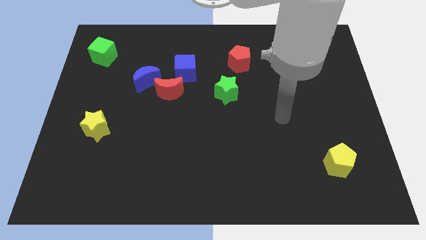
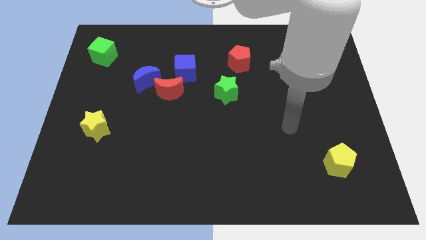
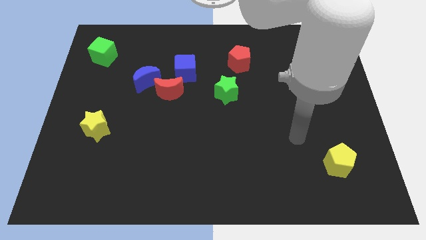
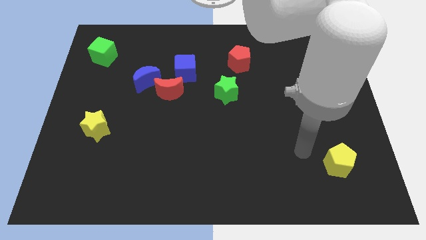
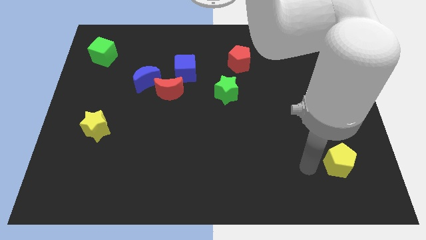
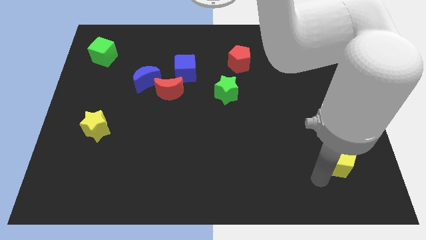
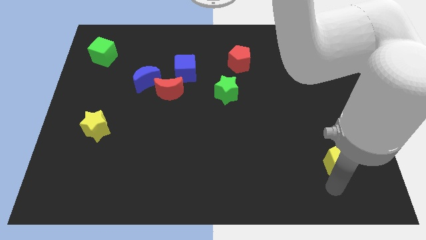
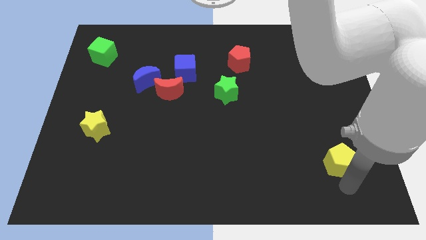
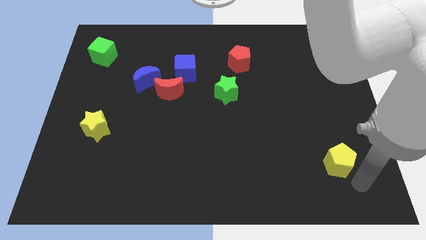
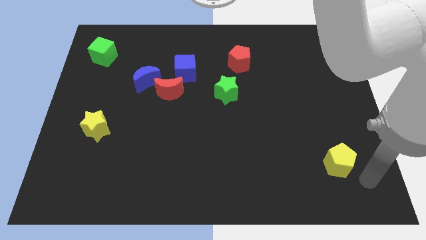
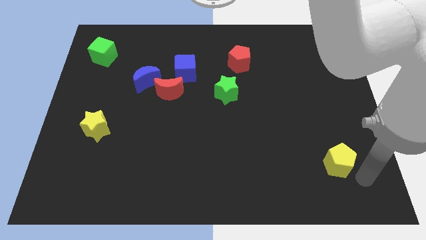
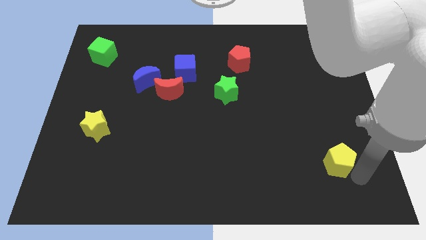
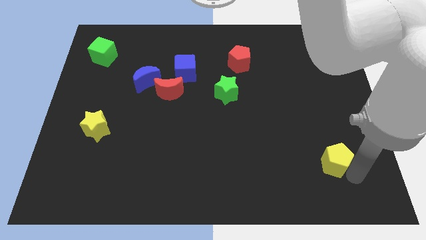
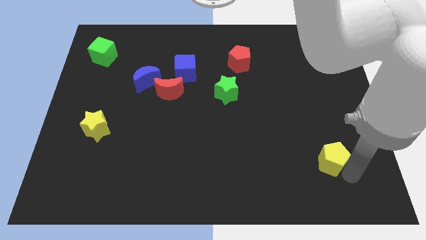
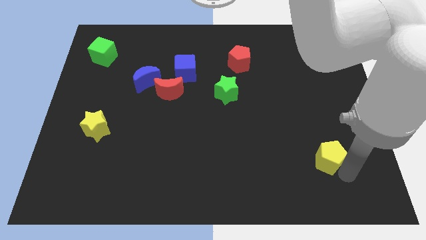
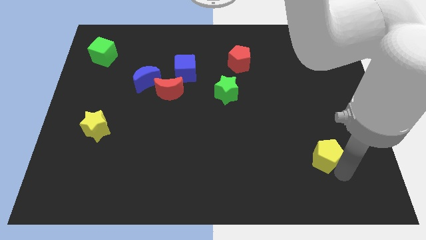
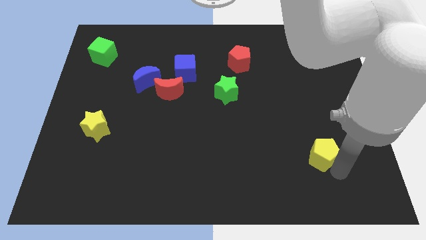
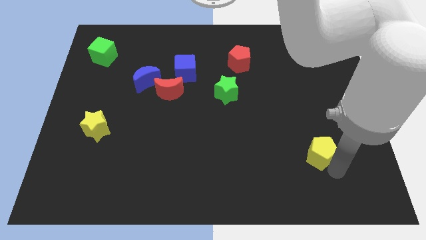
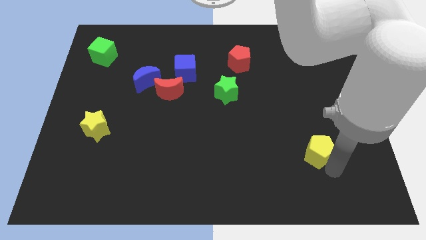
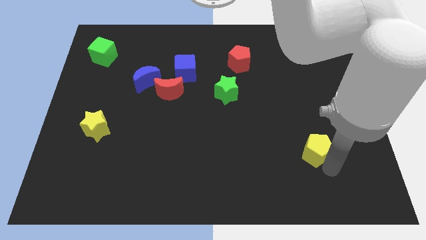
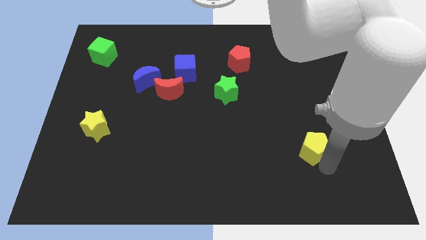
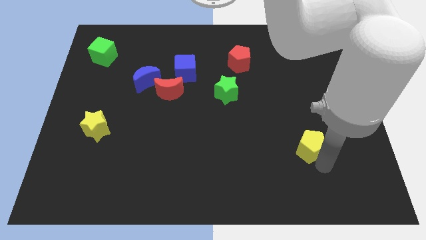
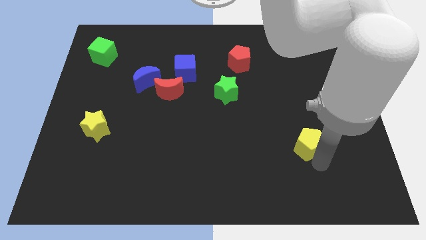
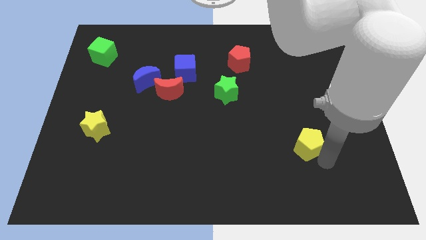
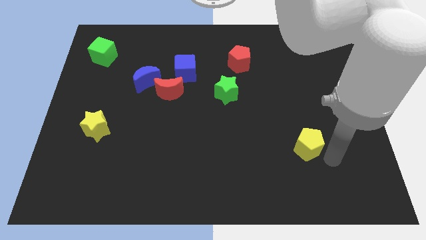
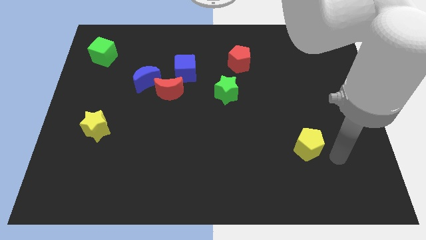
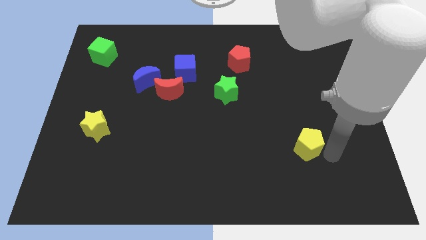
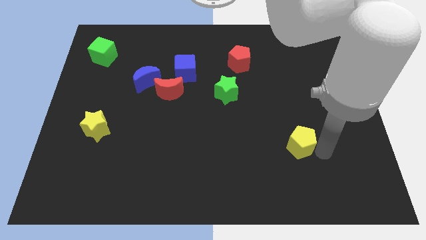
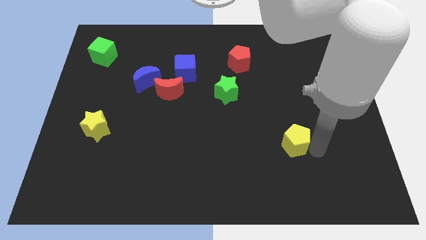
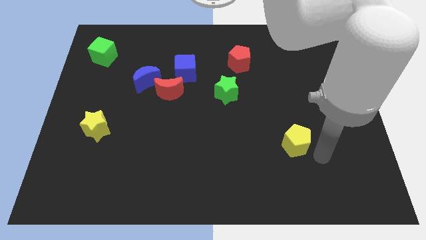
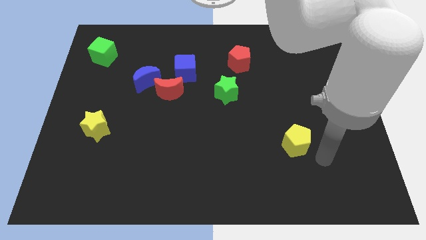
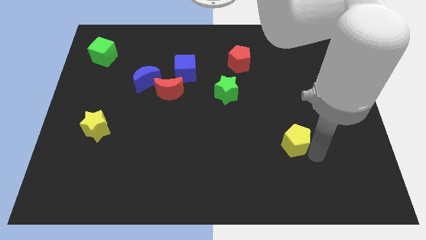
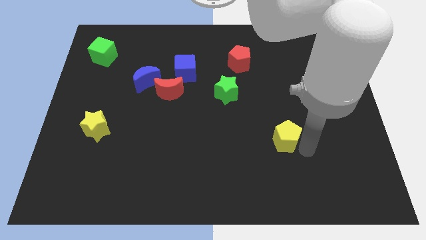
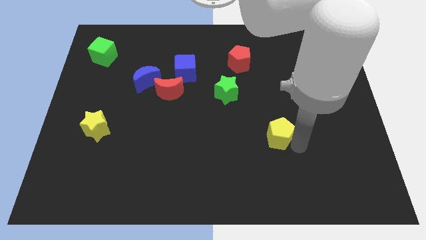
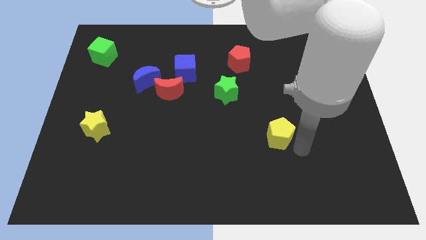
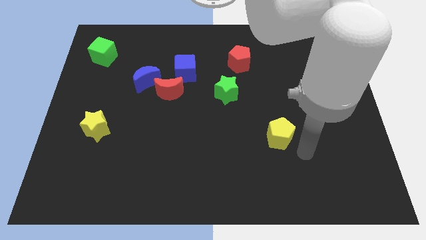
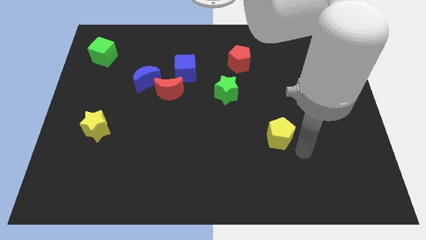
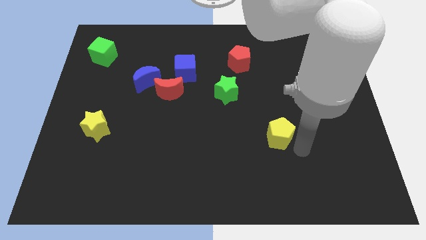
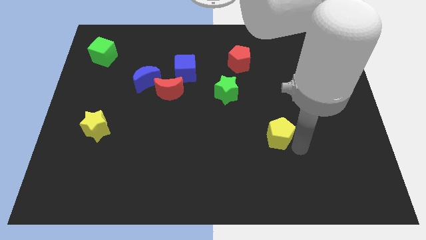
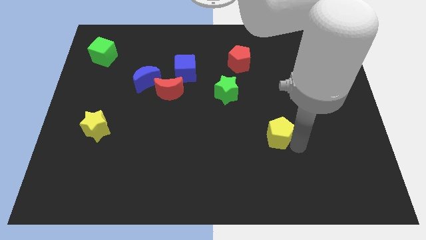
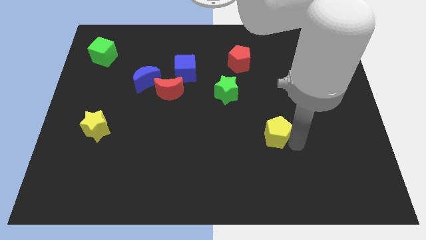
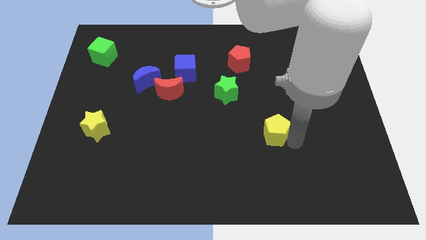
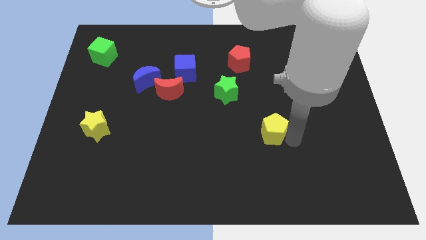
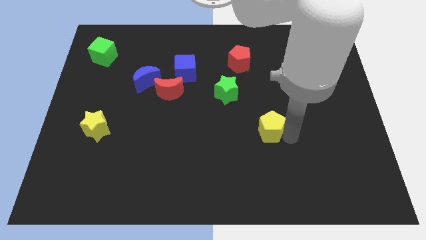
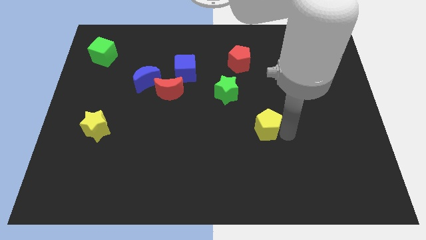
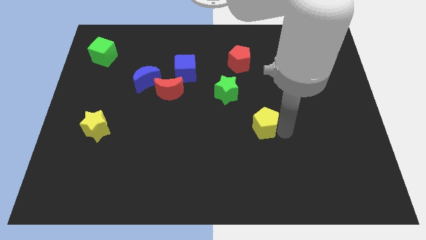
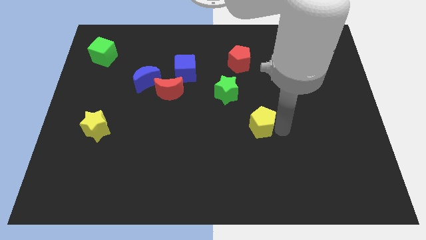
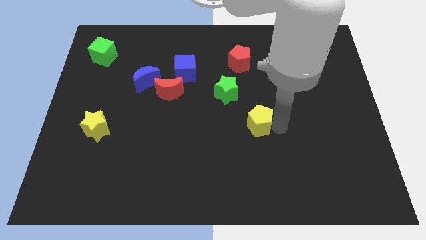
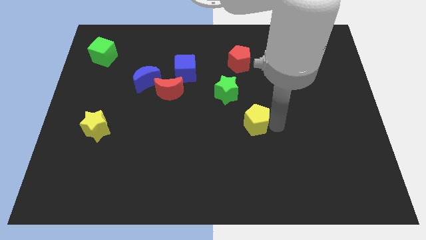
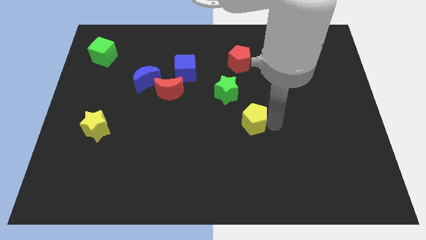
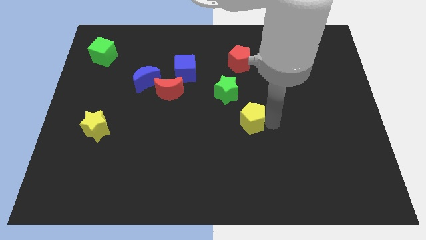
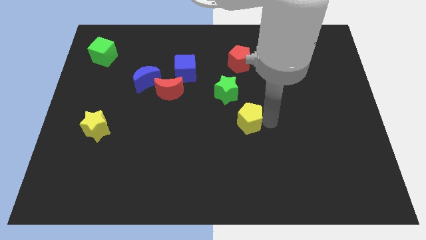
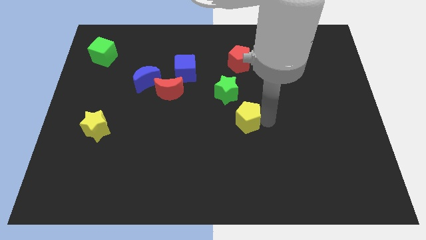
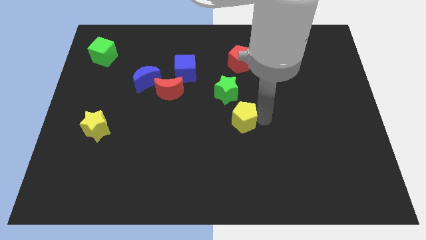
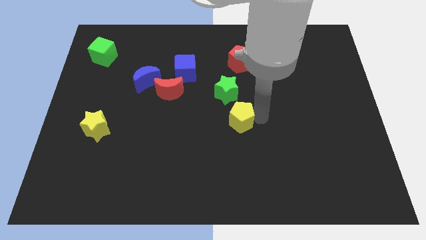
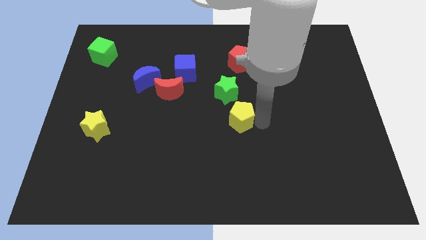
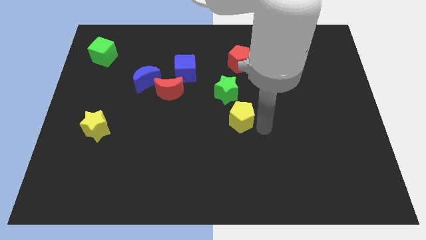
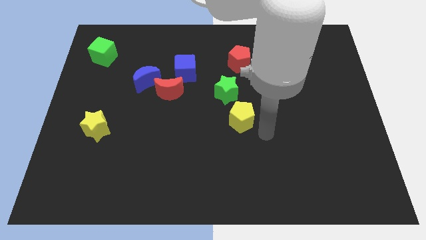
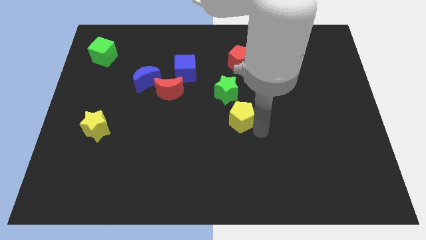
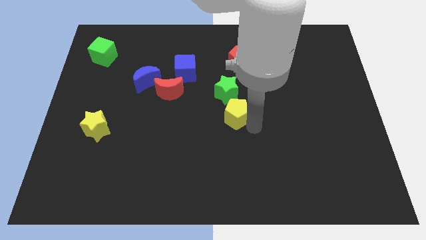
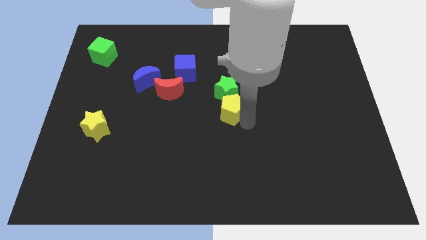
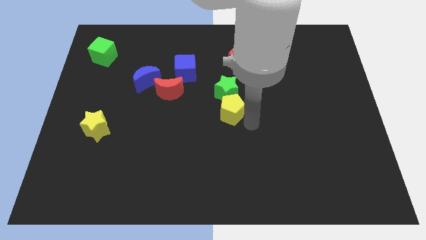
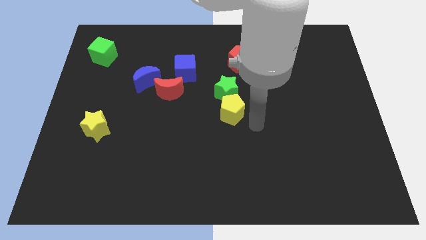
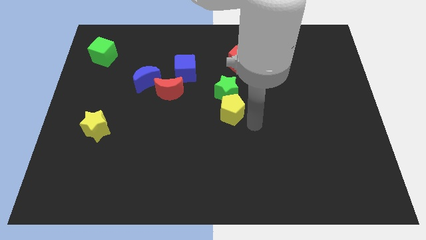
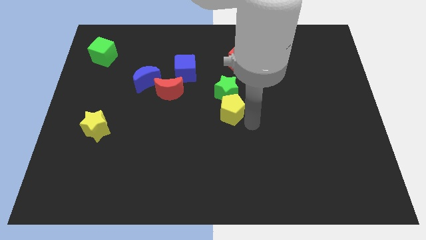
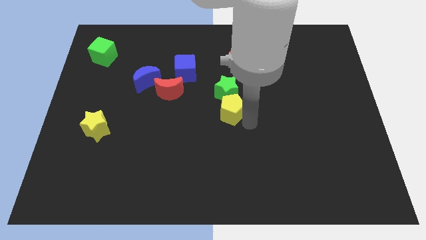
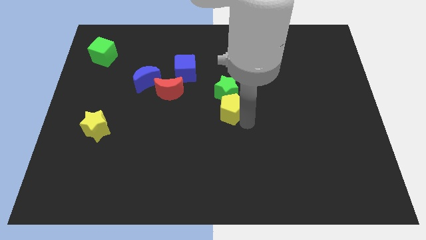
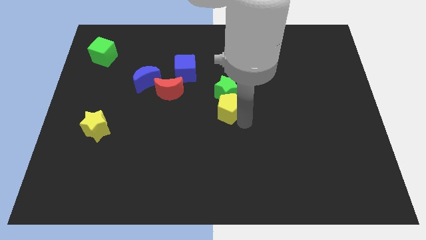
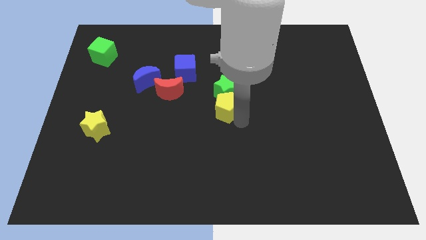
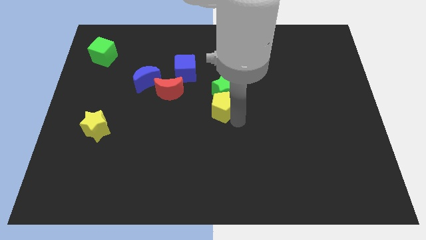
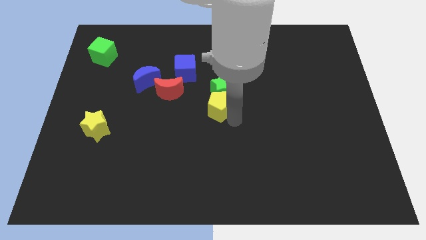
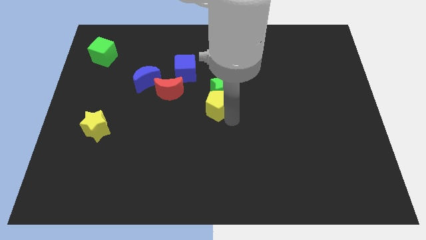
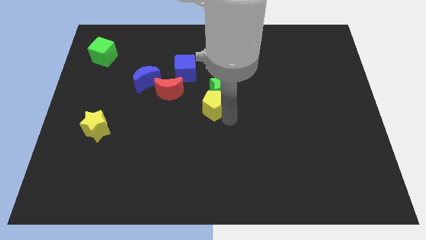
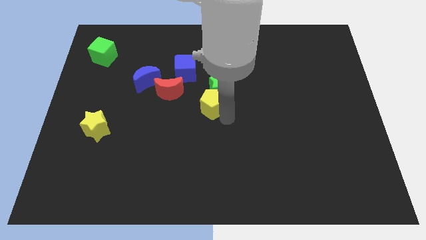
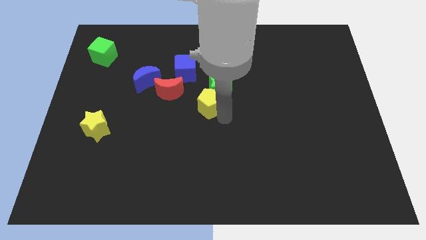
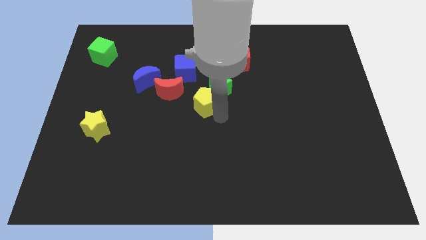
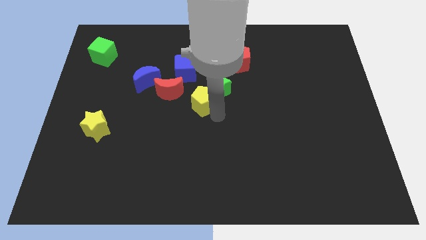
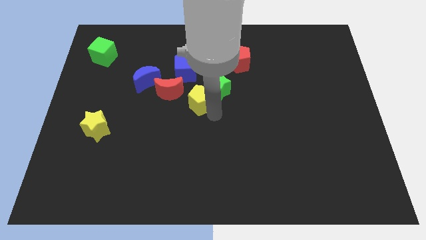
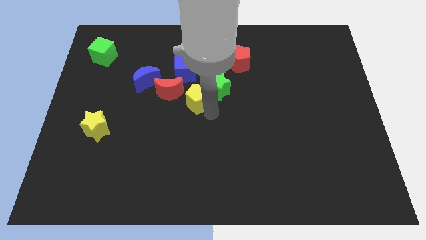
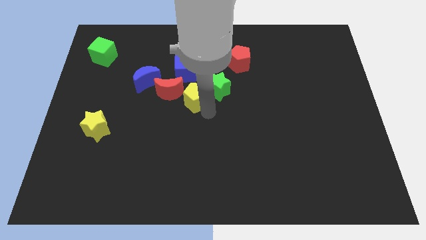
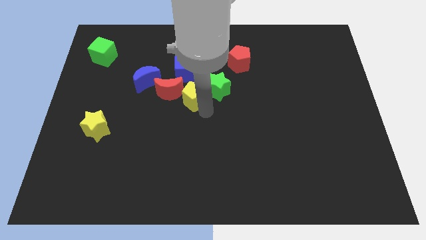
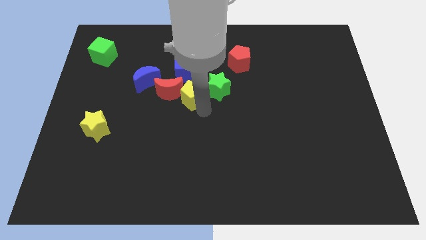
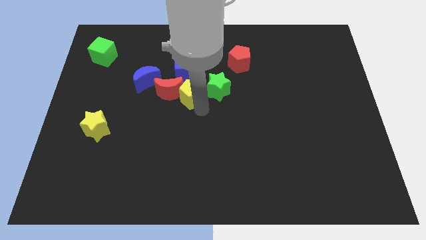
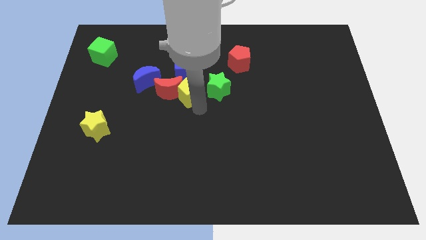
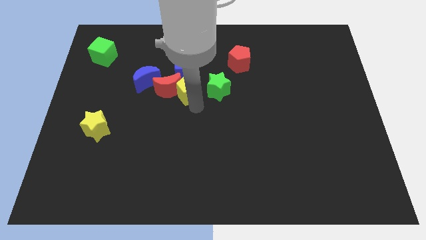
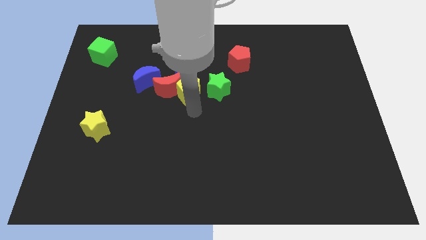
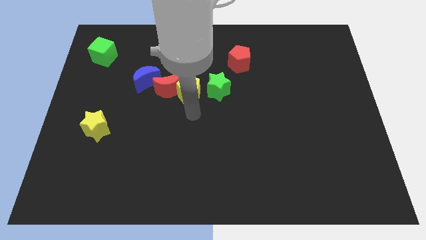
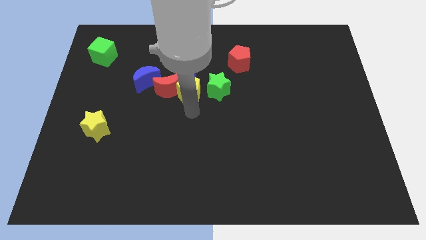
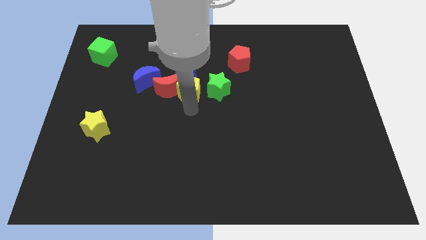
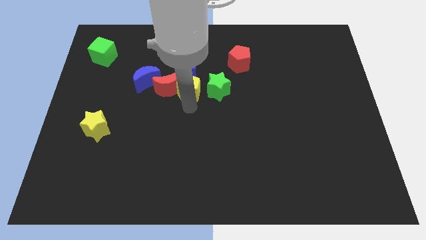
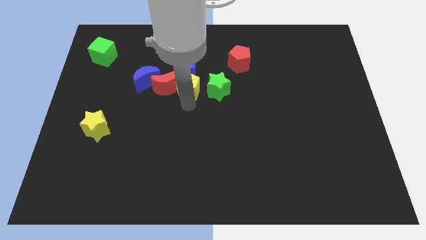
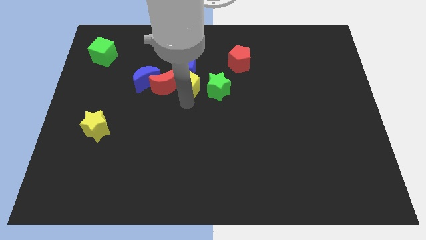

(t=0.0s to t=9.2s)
push the yellow pentagon to the blue cube
